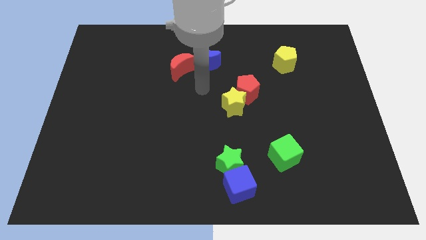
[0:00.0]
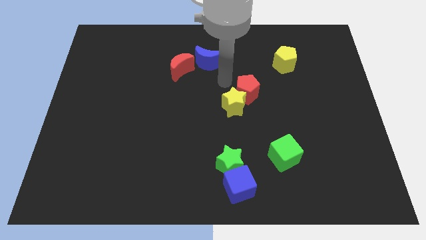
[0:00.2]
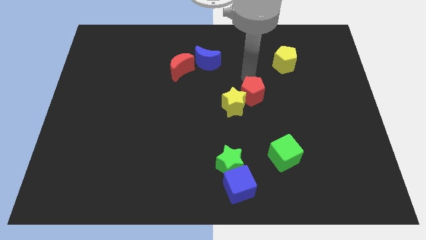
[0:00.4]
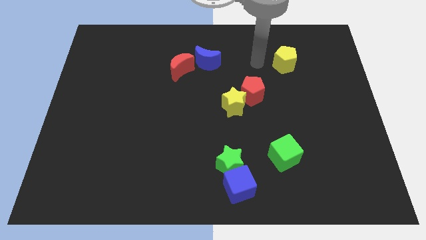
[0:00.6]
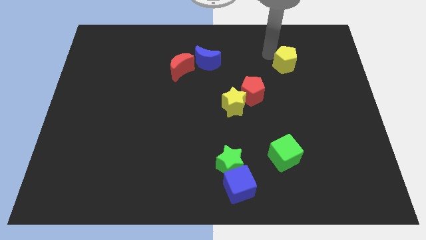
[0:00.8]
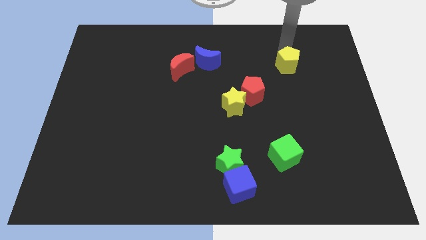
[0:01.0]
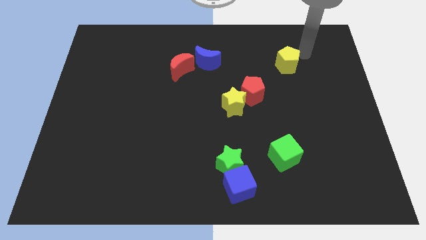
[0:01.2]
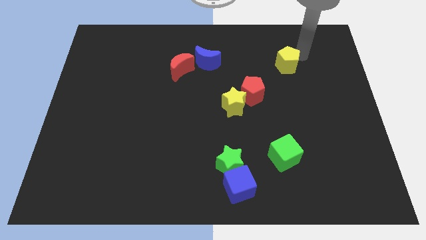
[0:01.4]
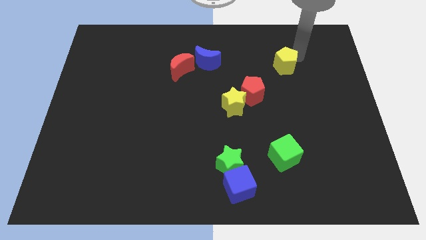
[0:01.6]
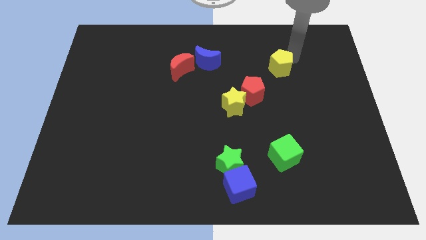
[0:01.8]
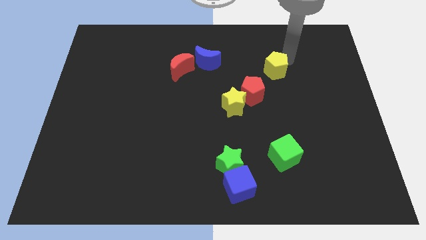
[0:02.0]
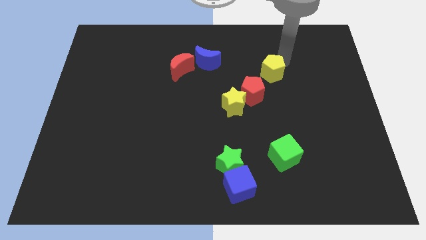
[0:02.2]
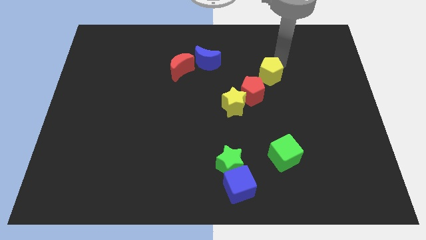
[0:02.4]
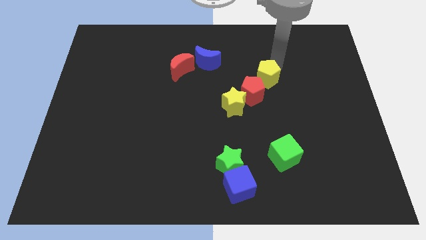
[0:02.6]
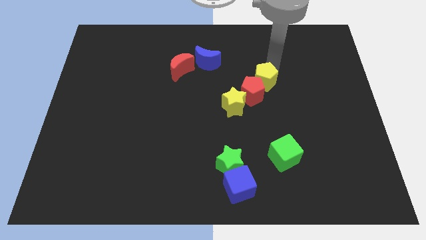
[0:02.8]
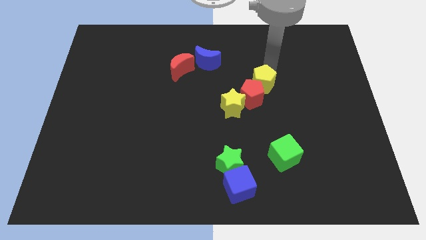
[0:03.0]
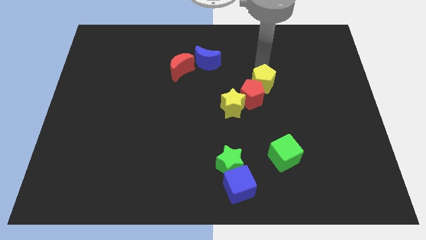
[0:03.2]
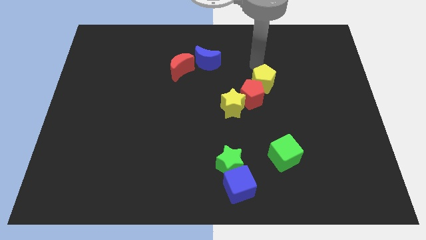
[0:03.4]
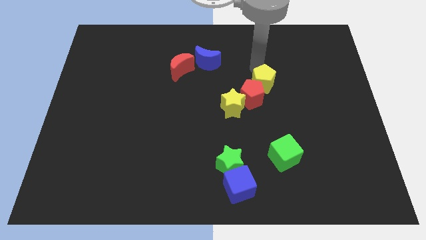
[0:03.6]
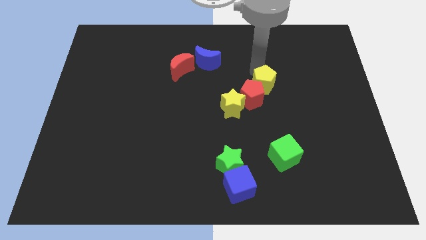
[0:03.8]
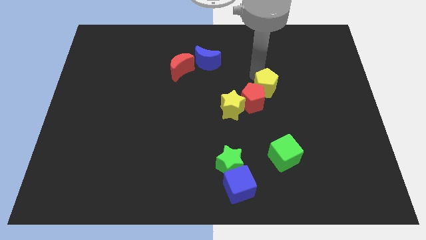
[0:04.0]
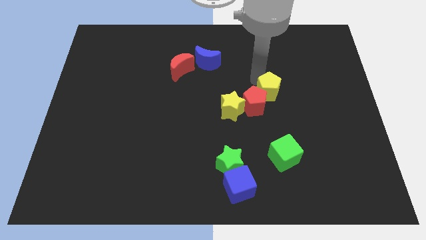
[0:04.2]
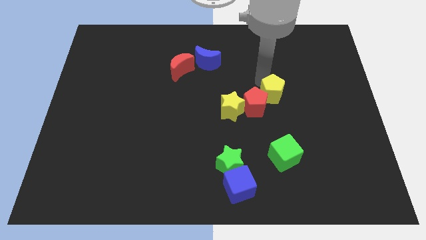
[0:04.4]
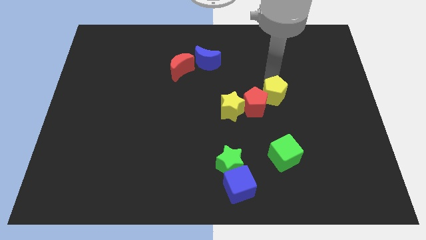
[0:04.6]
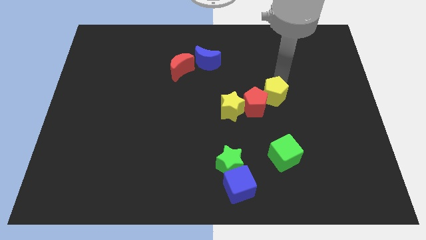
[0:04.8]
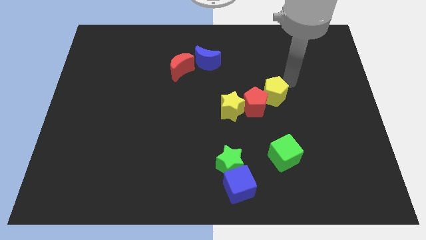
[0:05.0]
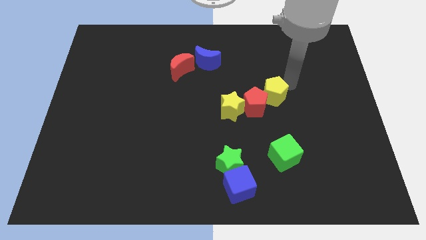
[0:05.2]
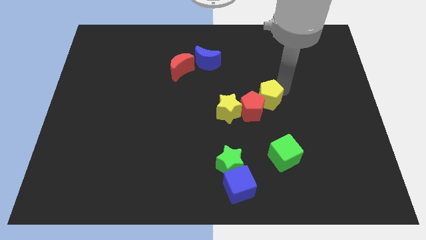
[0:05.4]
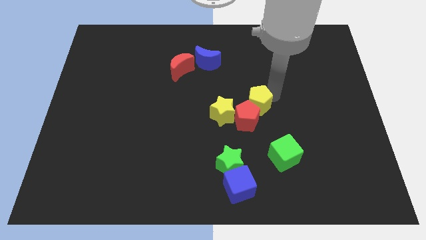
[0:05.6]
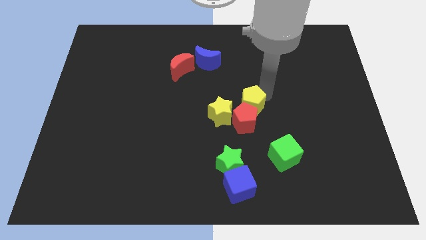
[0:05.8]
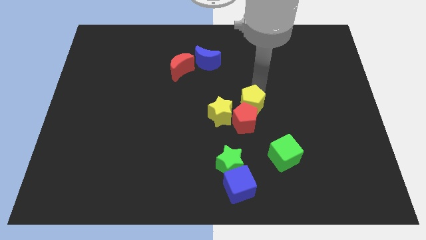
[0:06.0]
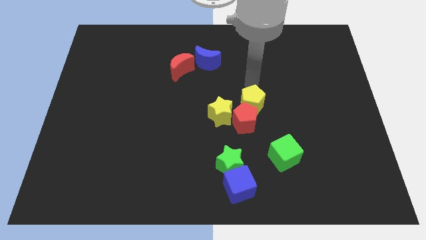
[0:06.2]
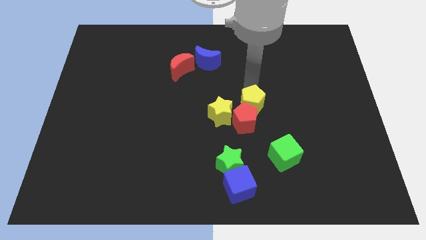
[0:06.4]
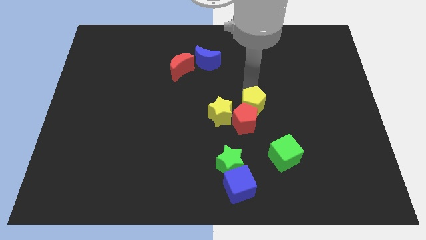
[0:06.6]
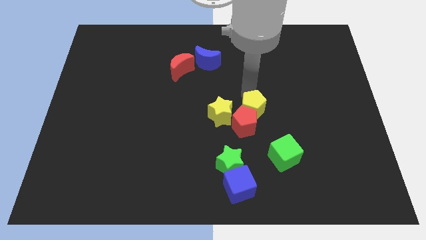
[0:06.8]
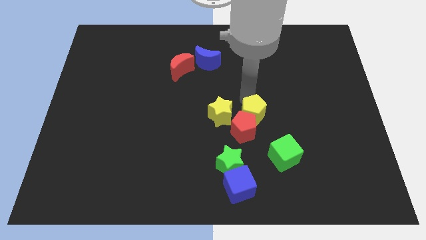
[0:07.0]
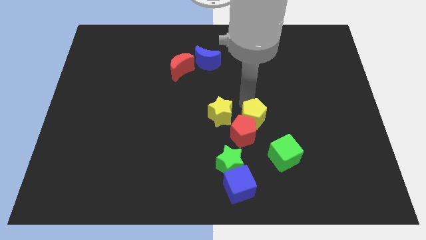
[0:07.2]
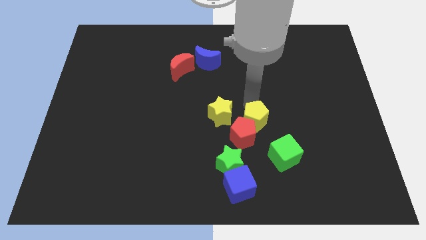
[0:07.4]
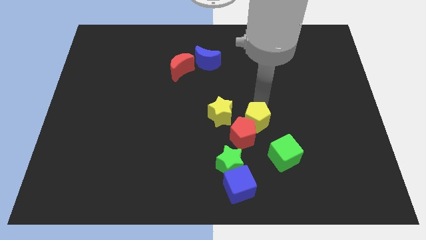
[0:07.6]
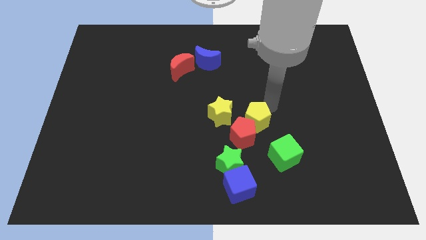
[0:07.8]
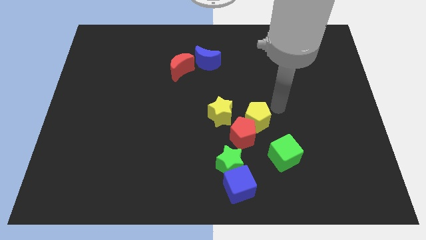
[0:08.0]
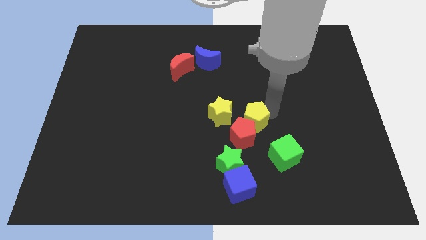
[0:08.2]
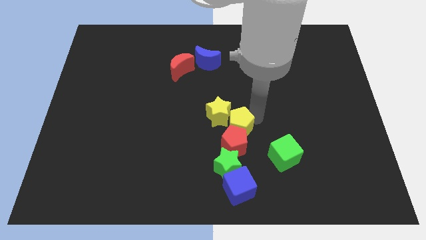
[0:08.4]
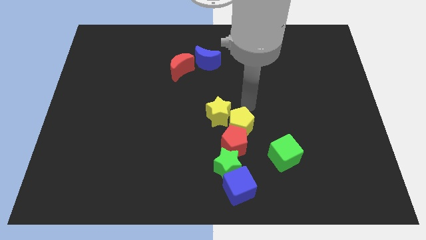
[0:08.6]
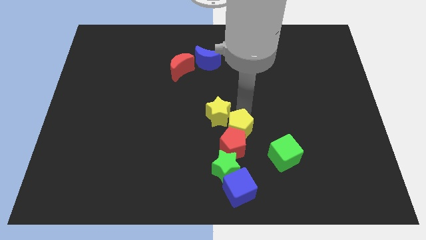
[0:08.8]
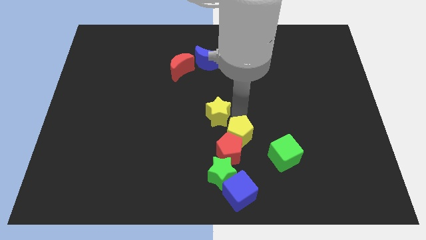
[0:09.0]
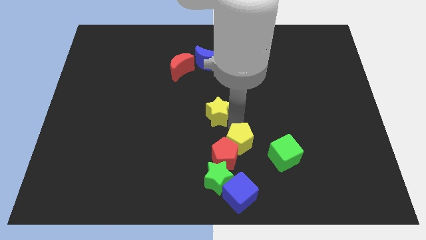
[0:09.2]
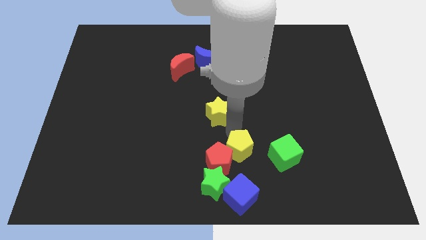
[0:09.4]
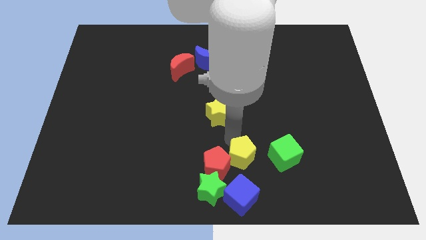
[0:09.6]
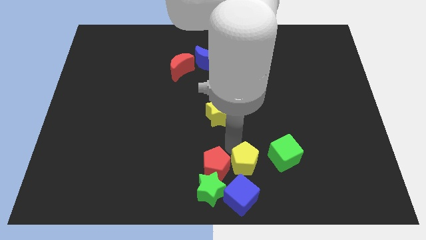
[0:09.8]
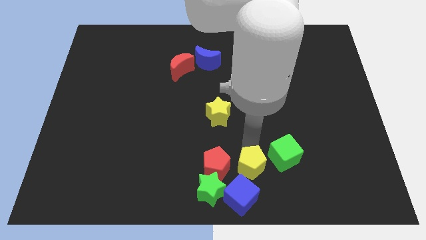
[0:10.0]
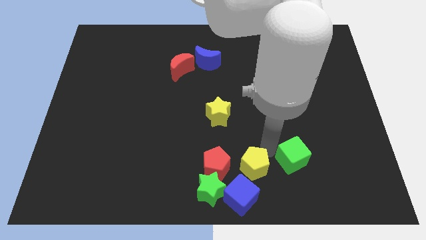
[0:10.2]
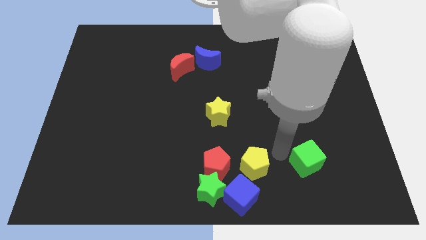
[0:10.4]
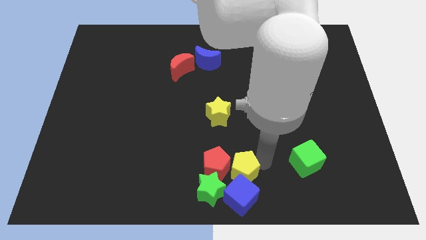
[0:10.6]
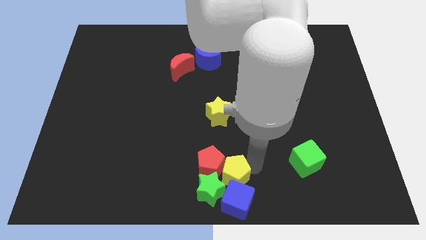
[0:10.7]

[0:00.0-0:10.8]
move the yellow pentagon next to the green star

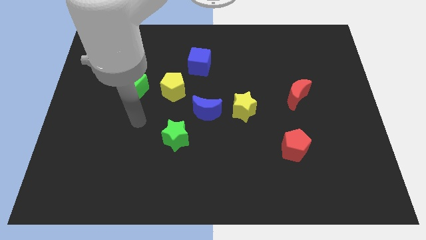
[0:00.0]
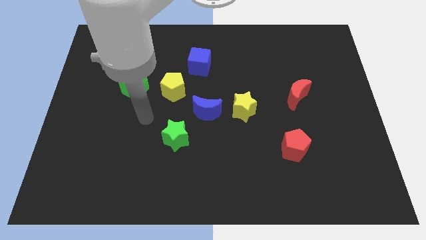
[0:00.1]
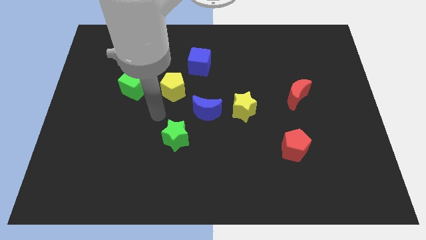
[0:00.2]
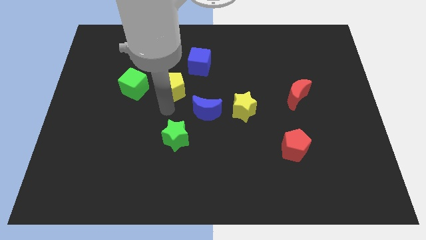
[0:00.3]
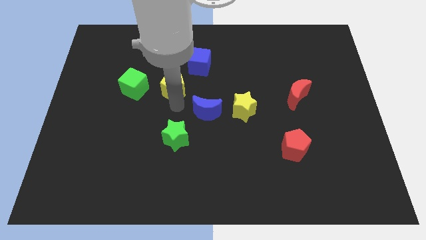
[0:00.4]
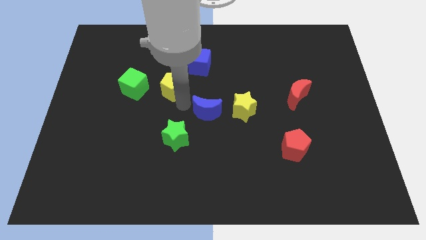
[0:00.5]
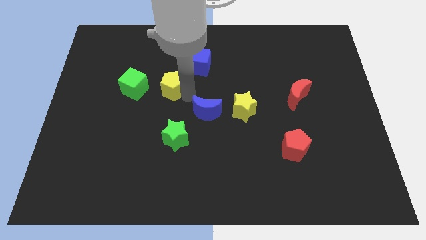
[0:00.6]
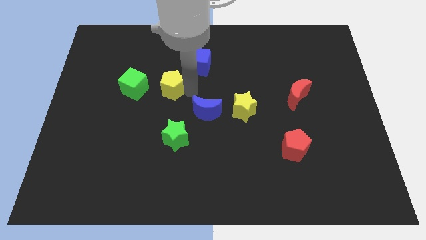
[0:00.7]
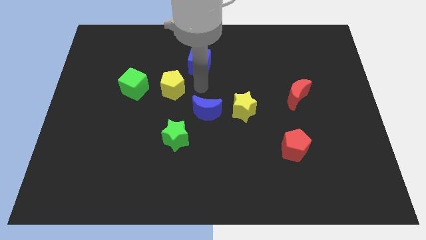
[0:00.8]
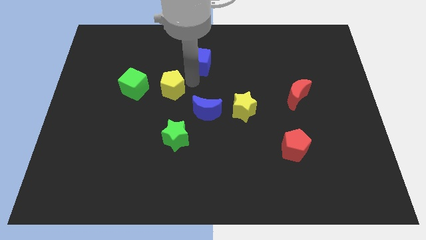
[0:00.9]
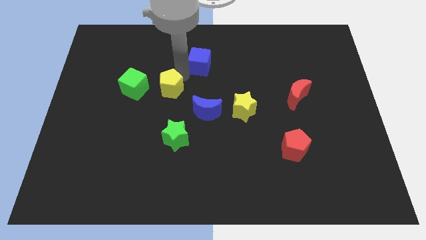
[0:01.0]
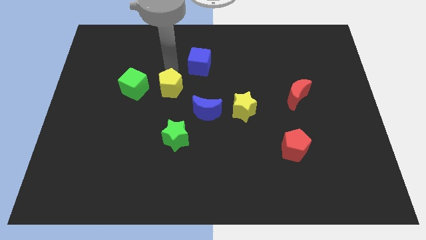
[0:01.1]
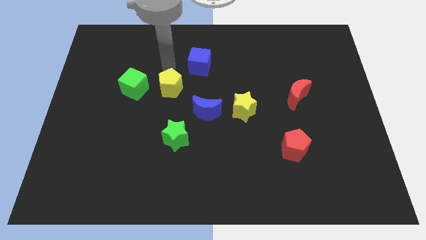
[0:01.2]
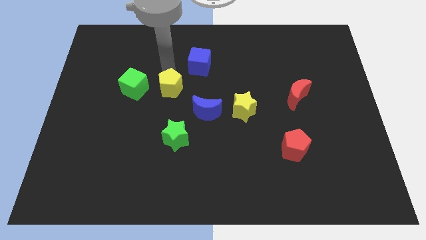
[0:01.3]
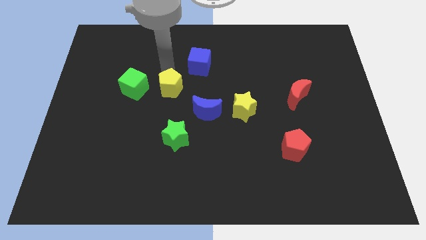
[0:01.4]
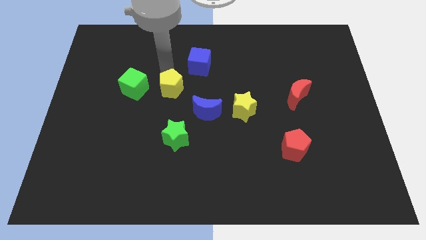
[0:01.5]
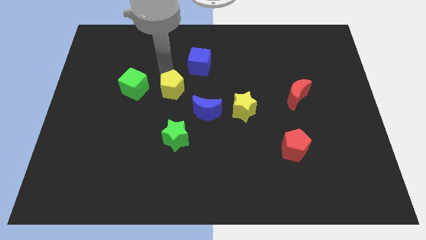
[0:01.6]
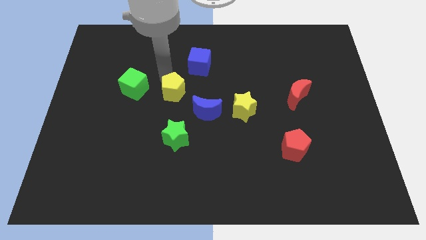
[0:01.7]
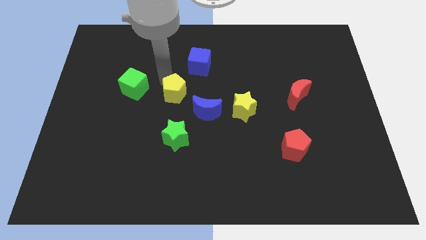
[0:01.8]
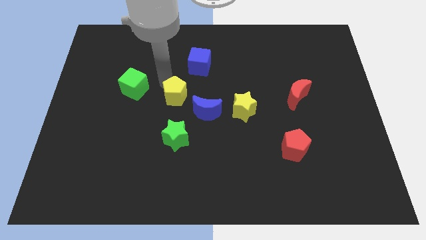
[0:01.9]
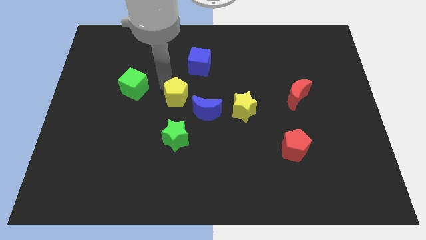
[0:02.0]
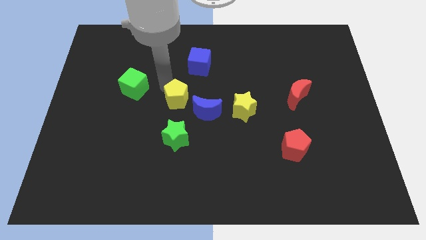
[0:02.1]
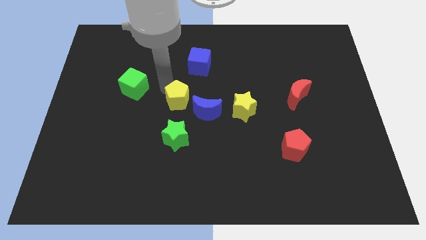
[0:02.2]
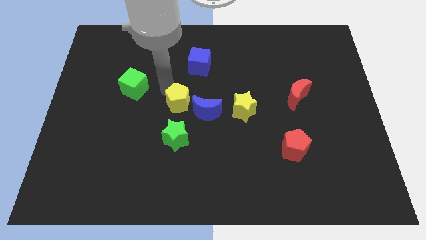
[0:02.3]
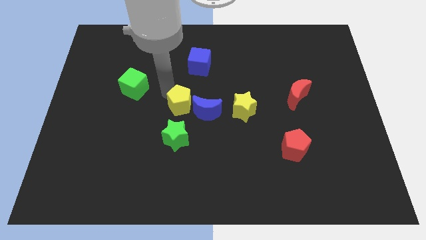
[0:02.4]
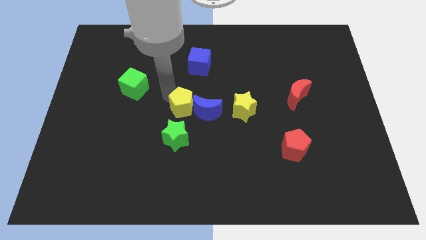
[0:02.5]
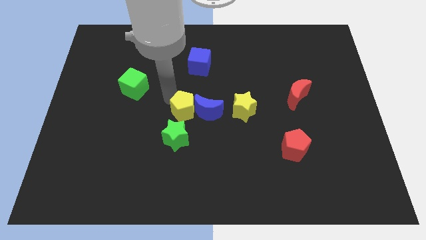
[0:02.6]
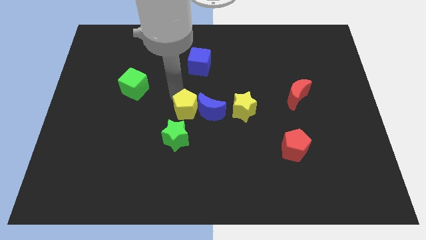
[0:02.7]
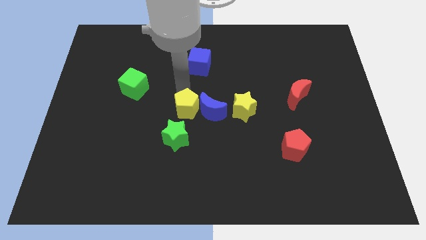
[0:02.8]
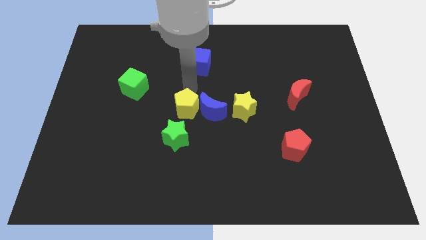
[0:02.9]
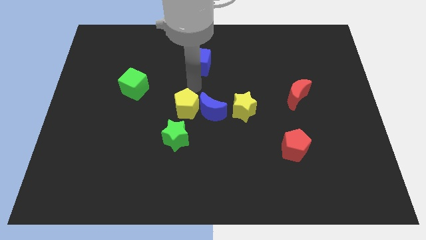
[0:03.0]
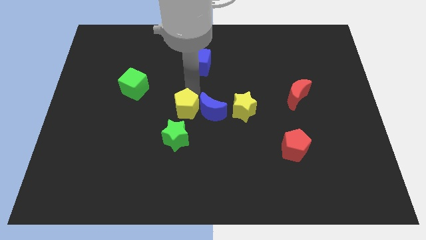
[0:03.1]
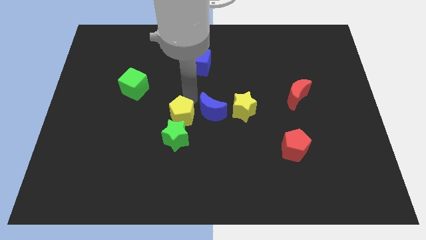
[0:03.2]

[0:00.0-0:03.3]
put the yellow pentagon to the green star
